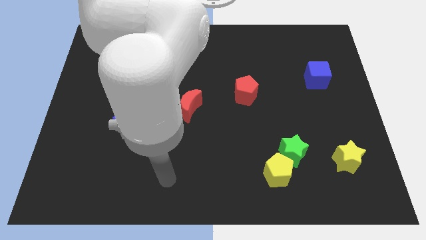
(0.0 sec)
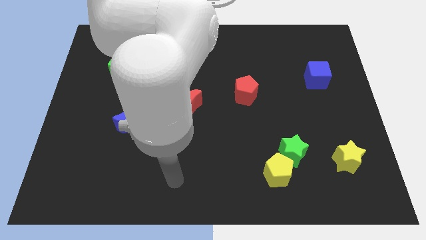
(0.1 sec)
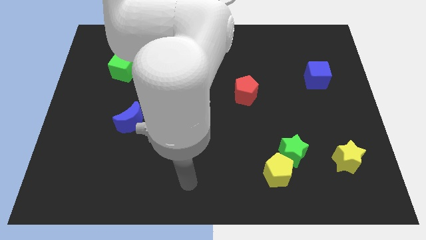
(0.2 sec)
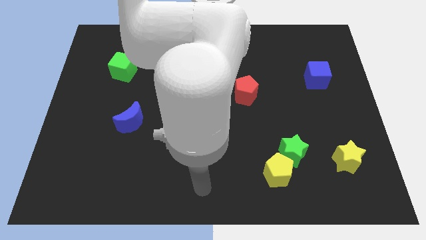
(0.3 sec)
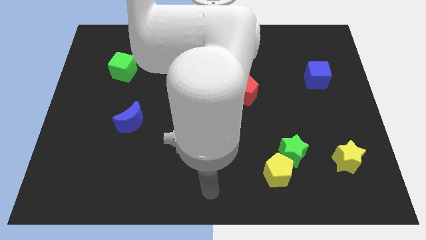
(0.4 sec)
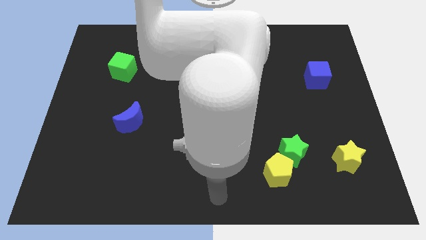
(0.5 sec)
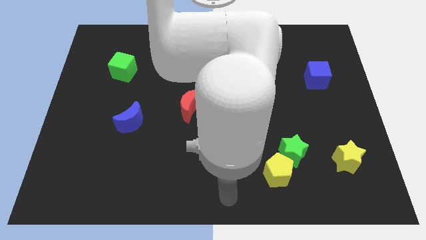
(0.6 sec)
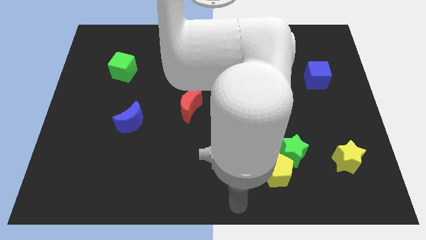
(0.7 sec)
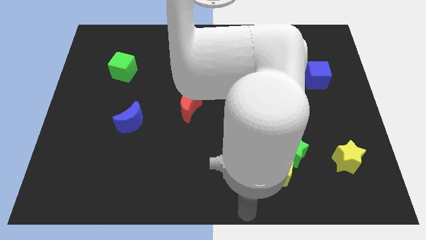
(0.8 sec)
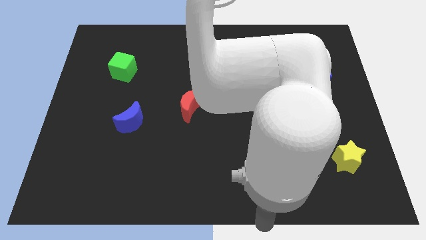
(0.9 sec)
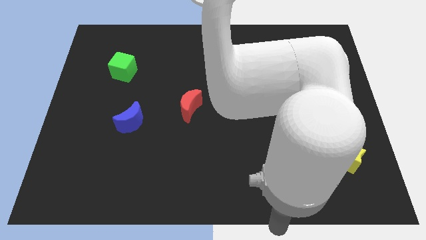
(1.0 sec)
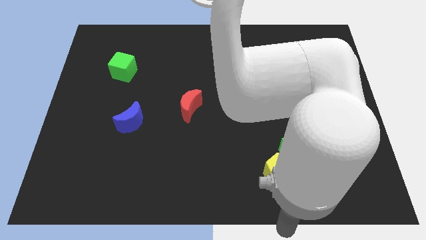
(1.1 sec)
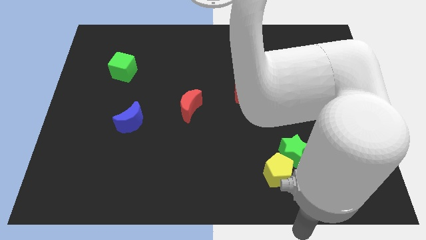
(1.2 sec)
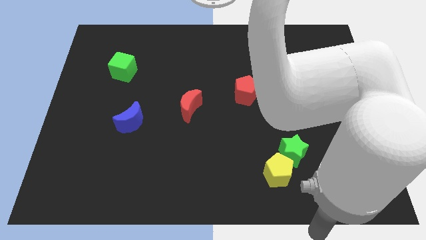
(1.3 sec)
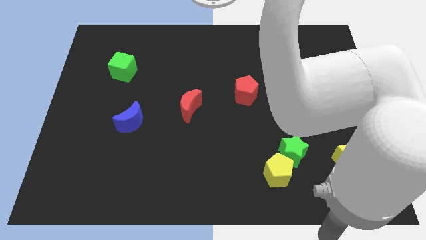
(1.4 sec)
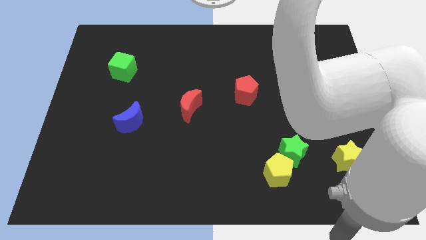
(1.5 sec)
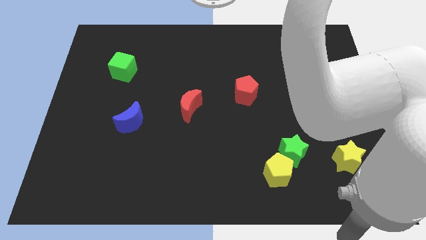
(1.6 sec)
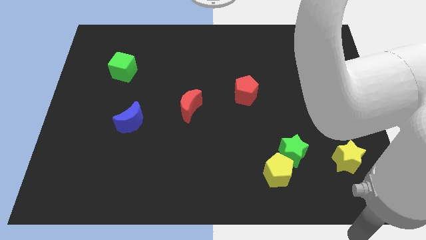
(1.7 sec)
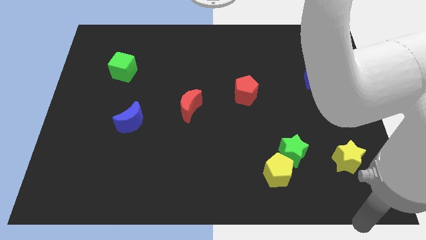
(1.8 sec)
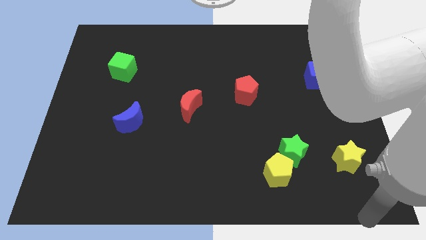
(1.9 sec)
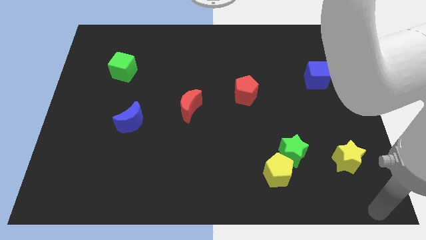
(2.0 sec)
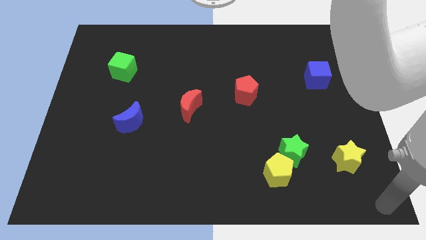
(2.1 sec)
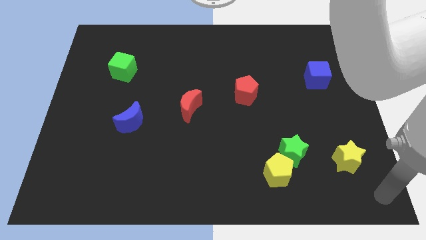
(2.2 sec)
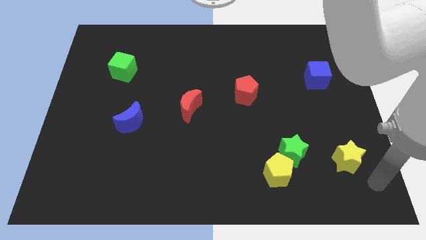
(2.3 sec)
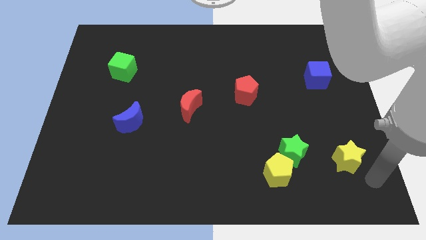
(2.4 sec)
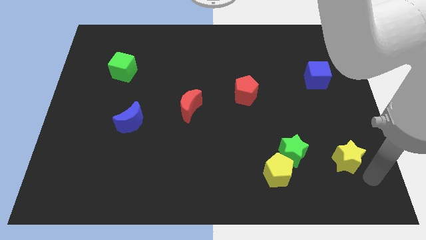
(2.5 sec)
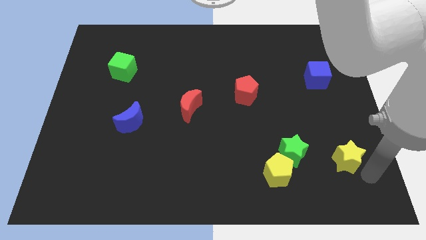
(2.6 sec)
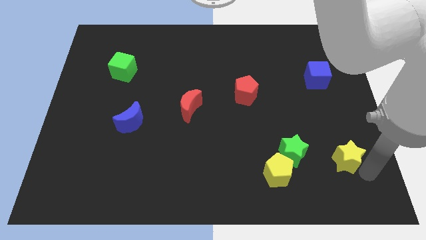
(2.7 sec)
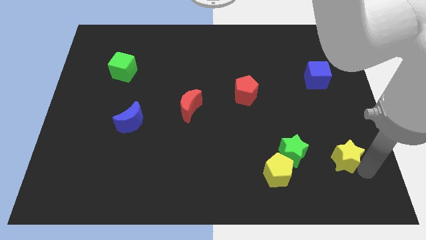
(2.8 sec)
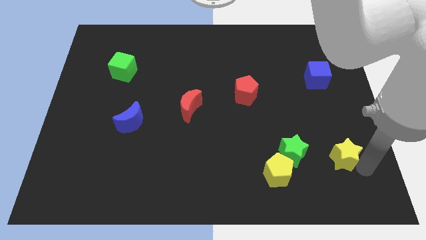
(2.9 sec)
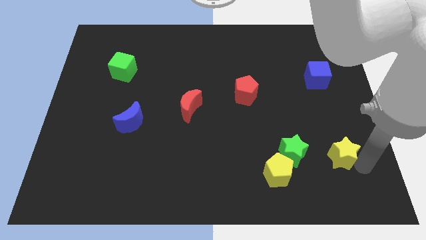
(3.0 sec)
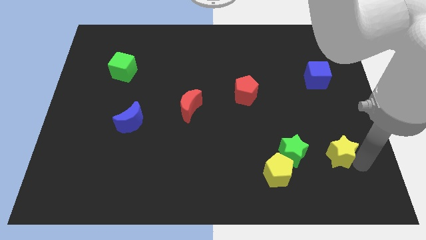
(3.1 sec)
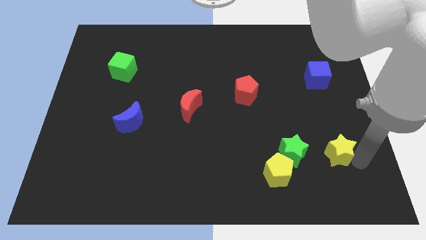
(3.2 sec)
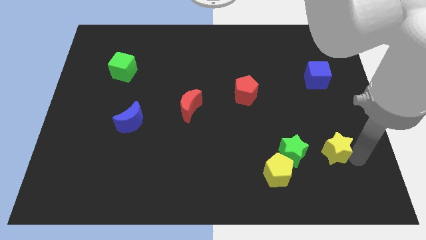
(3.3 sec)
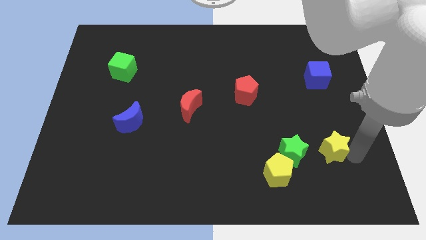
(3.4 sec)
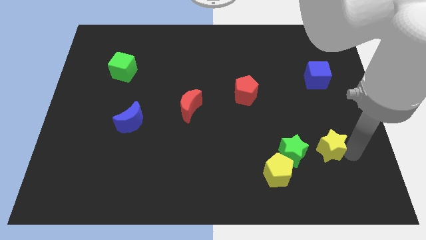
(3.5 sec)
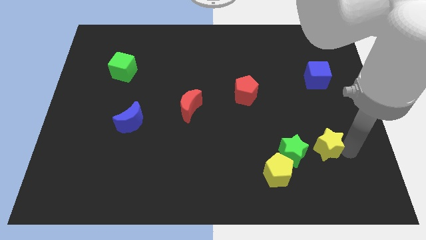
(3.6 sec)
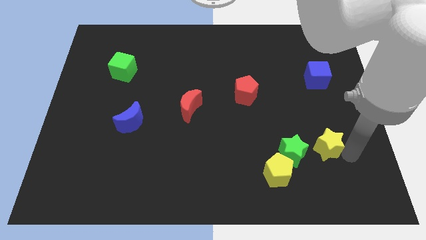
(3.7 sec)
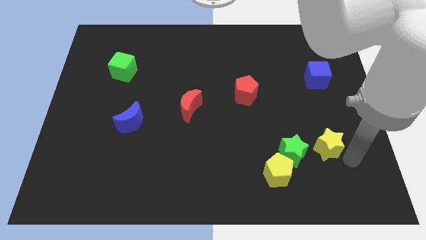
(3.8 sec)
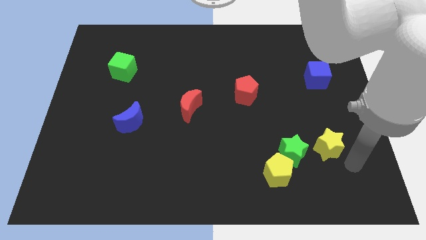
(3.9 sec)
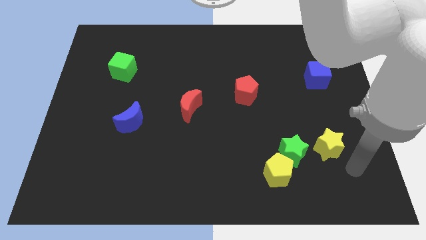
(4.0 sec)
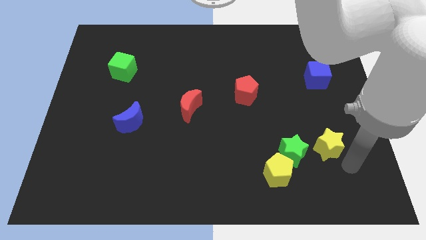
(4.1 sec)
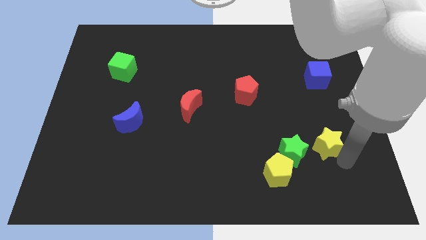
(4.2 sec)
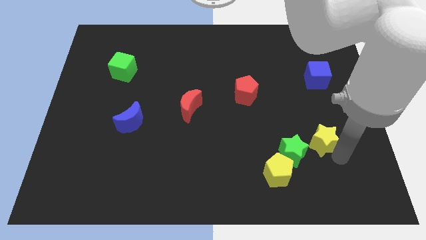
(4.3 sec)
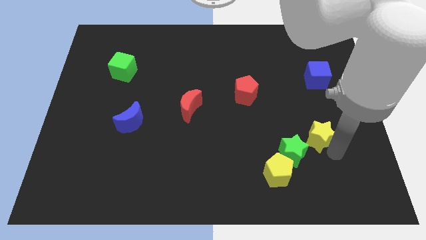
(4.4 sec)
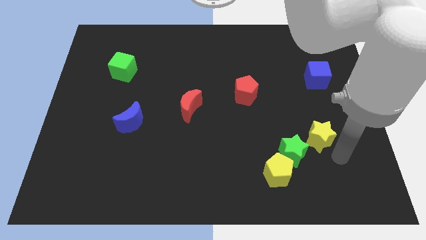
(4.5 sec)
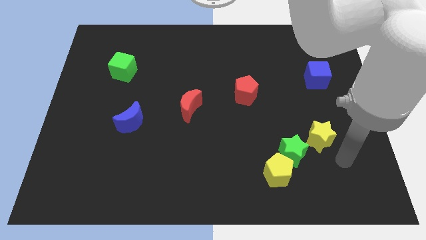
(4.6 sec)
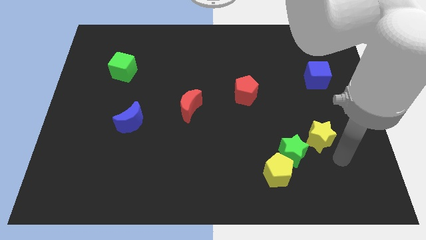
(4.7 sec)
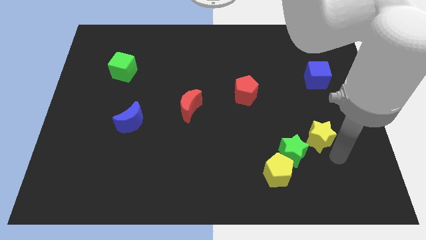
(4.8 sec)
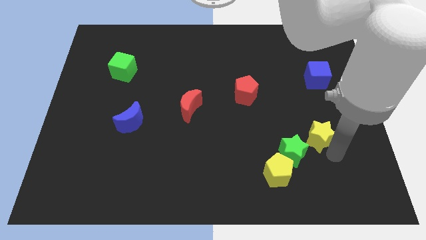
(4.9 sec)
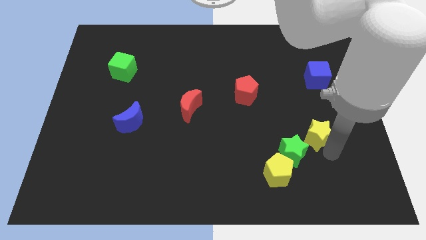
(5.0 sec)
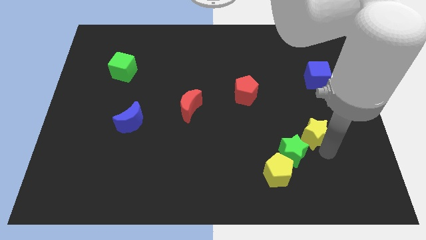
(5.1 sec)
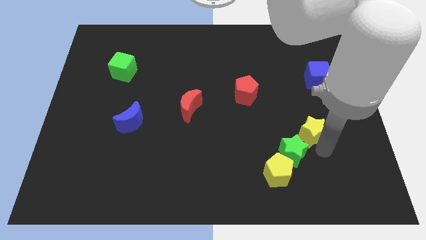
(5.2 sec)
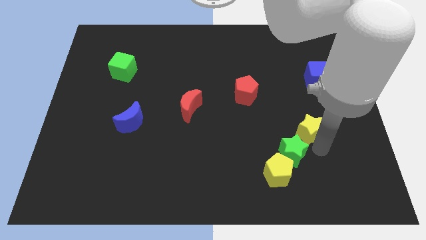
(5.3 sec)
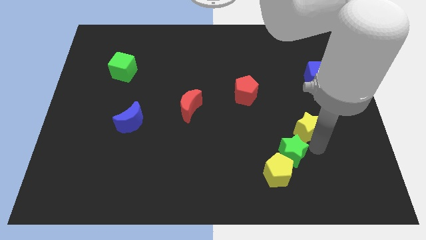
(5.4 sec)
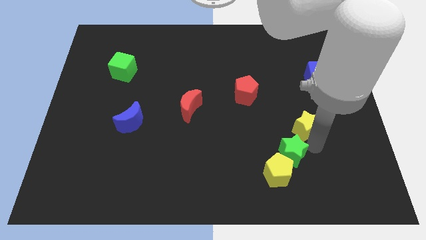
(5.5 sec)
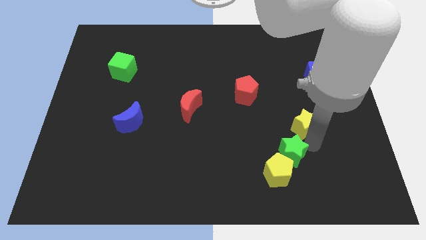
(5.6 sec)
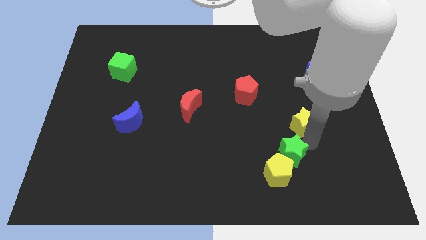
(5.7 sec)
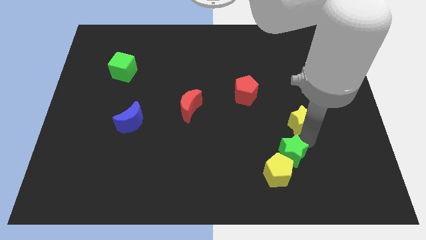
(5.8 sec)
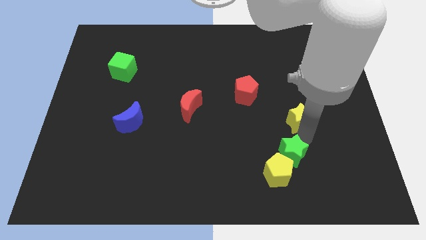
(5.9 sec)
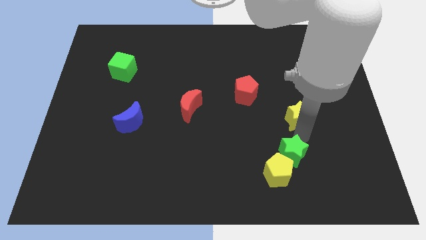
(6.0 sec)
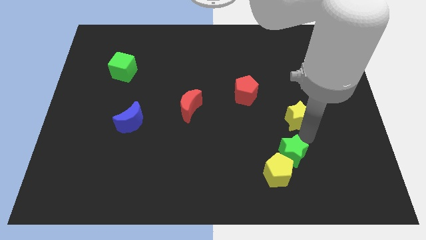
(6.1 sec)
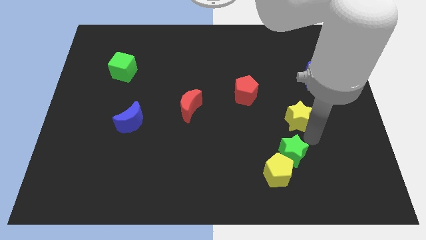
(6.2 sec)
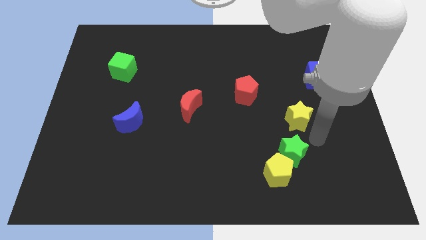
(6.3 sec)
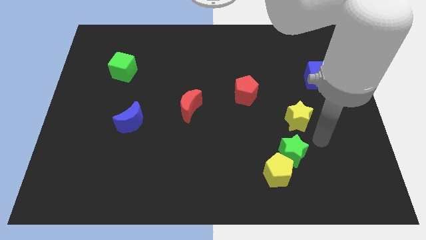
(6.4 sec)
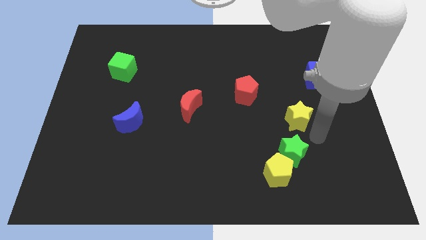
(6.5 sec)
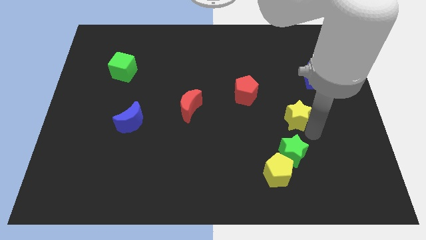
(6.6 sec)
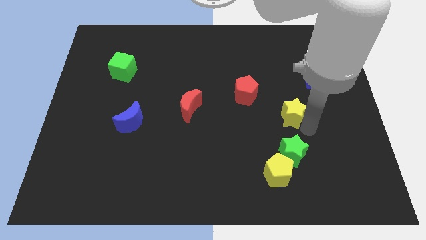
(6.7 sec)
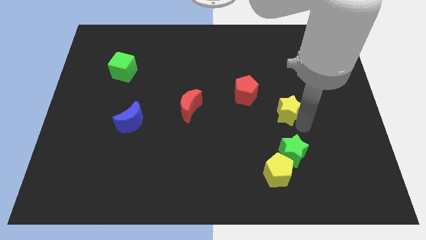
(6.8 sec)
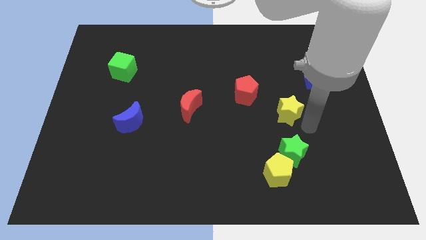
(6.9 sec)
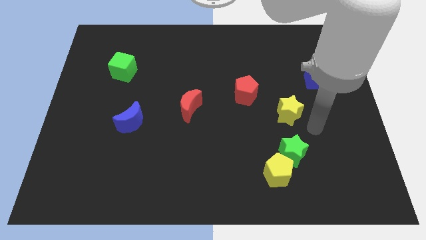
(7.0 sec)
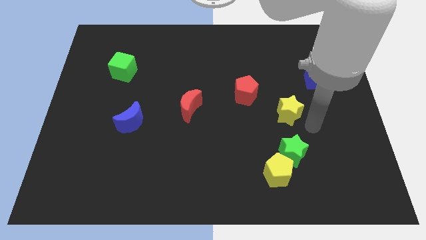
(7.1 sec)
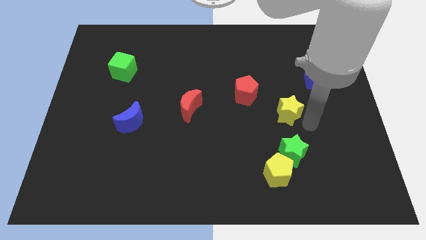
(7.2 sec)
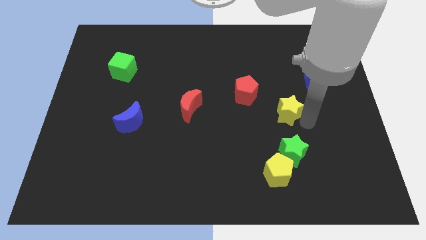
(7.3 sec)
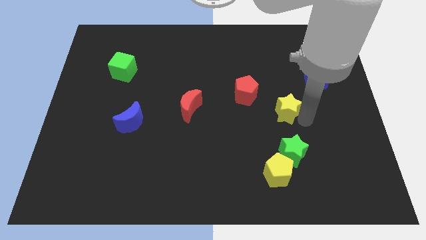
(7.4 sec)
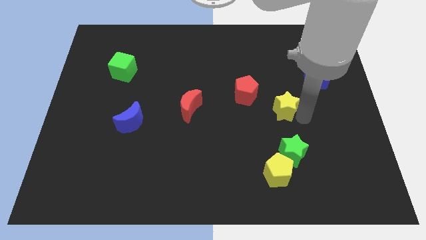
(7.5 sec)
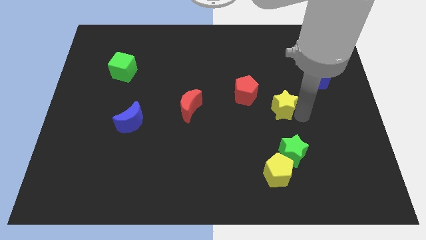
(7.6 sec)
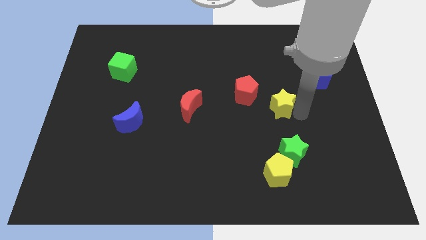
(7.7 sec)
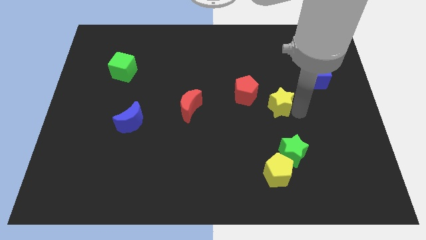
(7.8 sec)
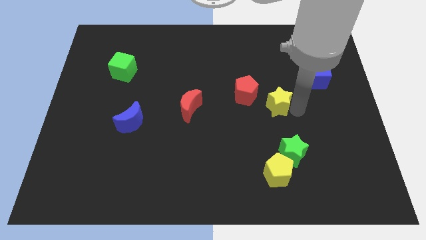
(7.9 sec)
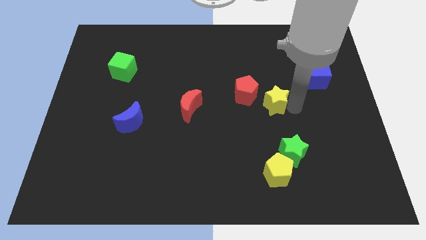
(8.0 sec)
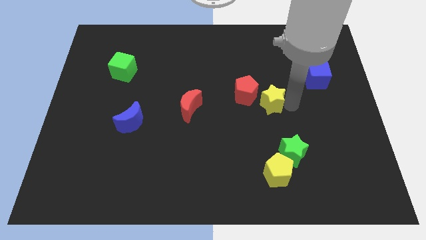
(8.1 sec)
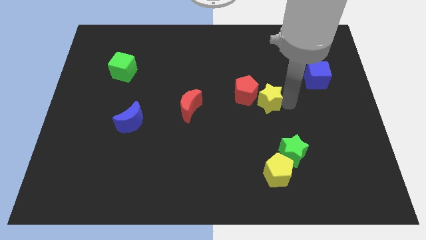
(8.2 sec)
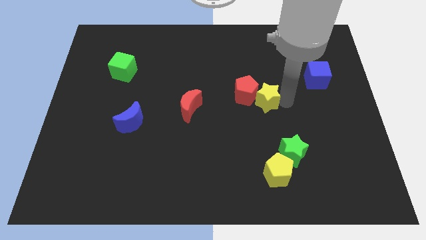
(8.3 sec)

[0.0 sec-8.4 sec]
push the yellow star to the red pentagon
